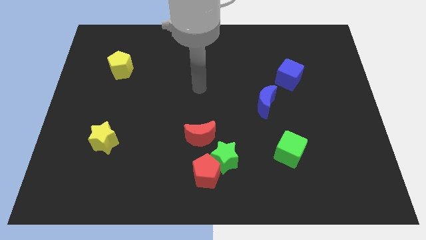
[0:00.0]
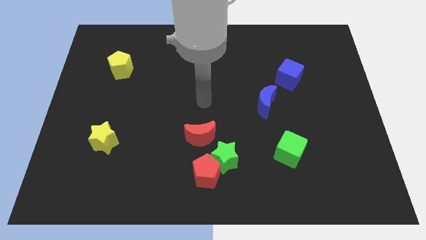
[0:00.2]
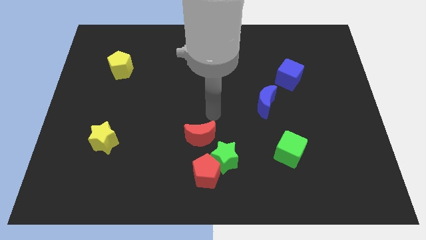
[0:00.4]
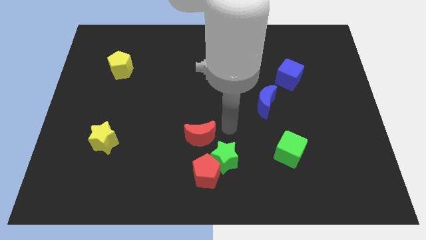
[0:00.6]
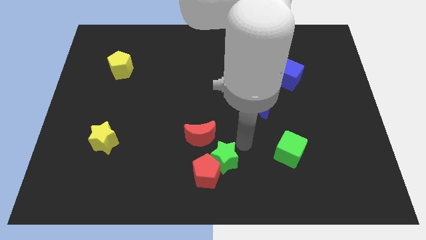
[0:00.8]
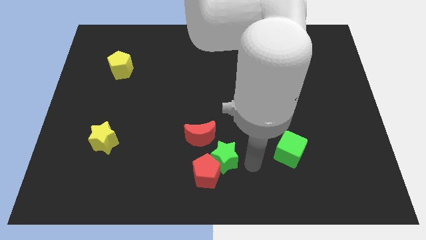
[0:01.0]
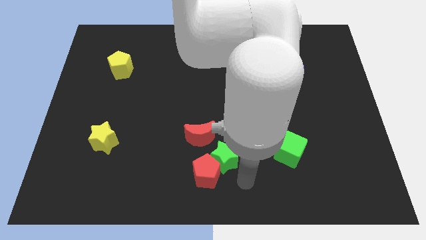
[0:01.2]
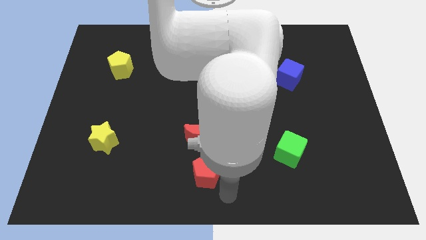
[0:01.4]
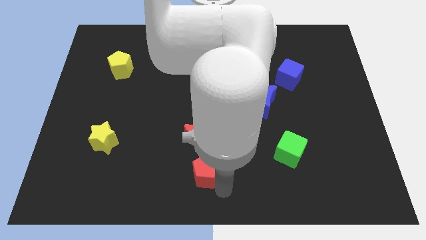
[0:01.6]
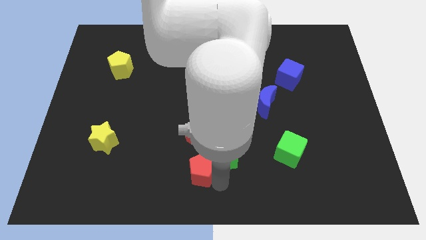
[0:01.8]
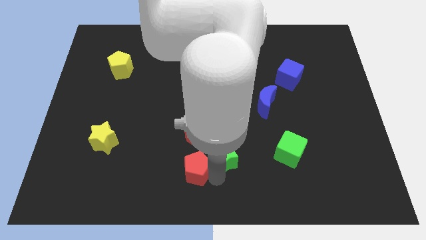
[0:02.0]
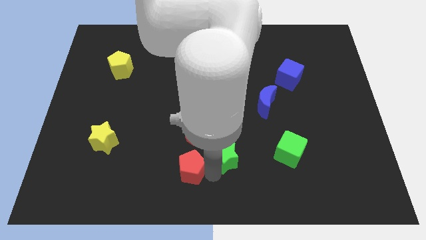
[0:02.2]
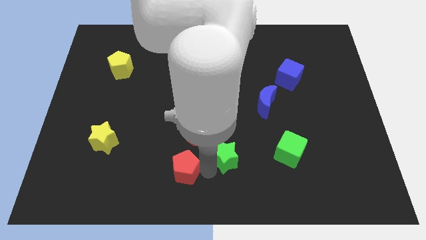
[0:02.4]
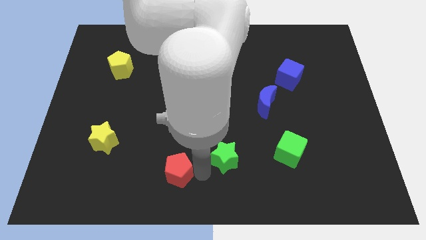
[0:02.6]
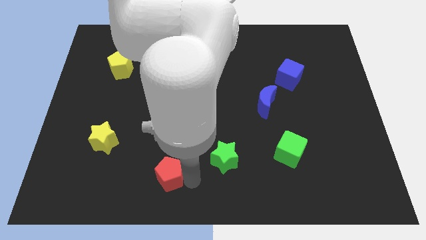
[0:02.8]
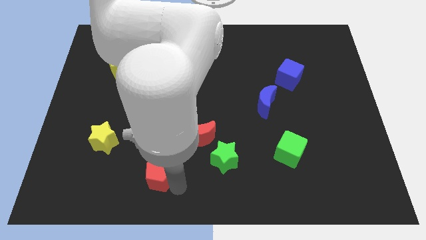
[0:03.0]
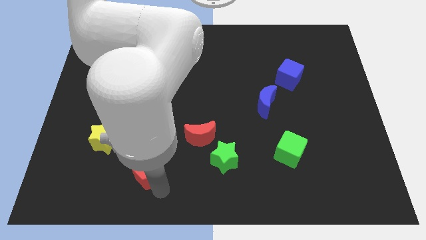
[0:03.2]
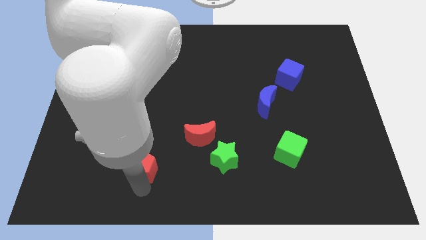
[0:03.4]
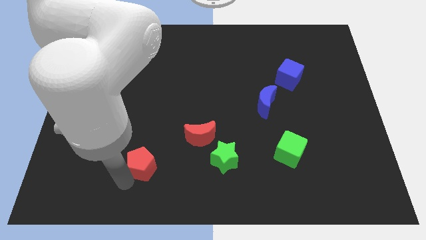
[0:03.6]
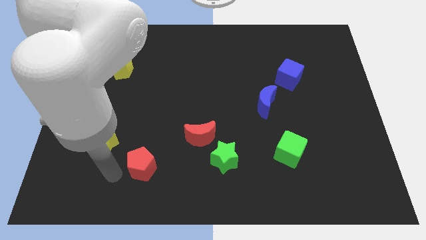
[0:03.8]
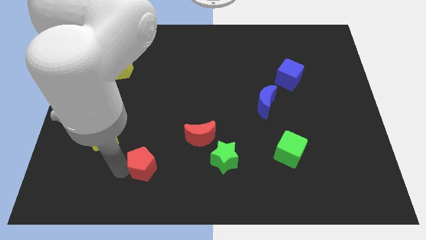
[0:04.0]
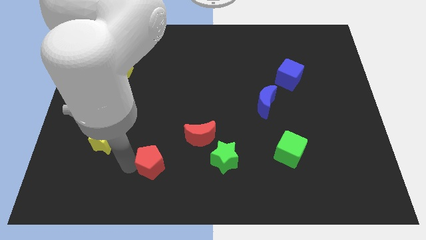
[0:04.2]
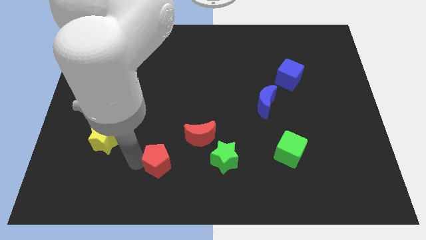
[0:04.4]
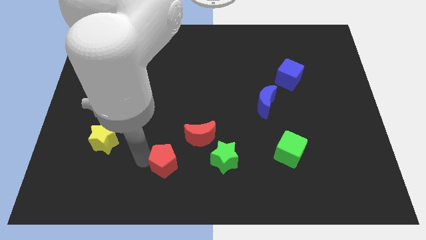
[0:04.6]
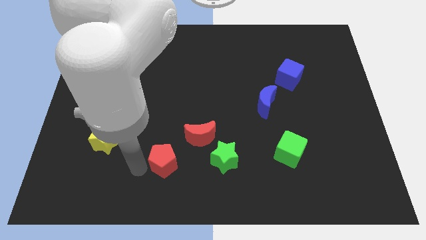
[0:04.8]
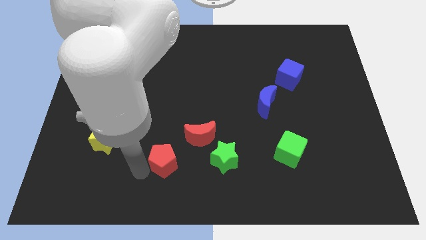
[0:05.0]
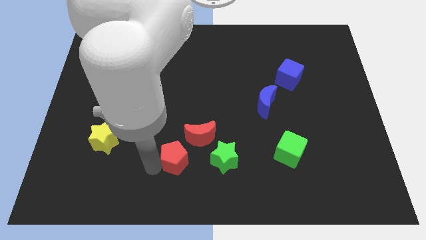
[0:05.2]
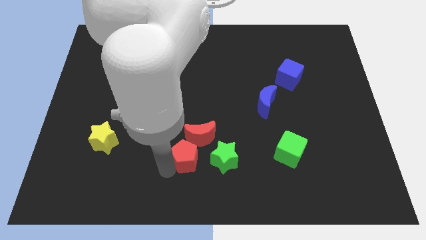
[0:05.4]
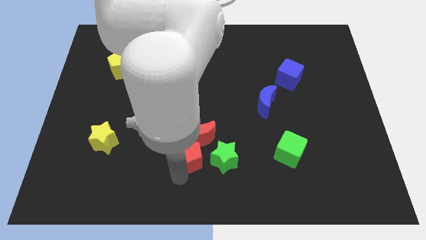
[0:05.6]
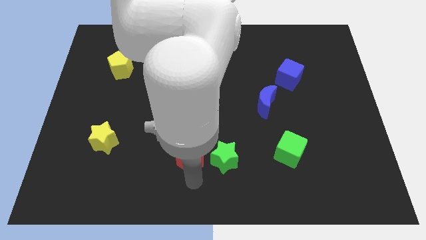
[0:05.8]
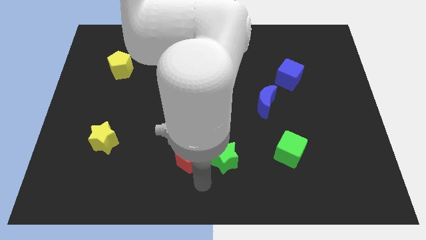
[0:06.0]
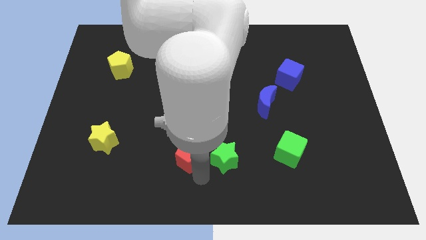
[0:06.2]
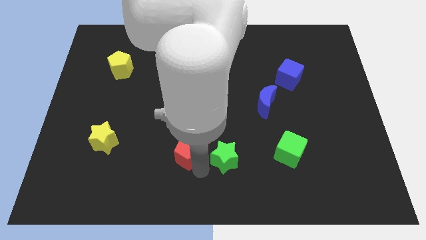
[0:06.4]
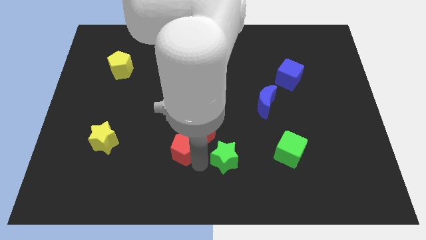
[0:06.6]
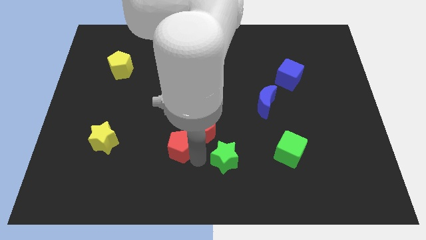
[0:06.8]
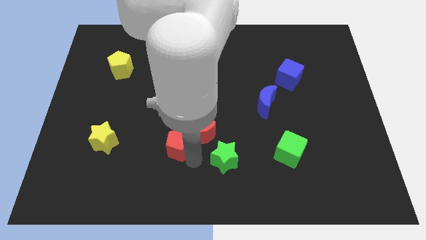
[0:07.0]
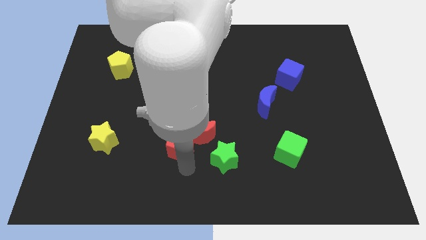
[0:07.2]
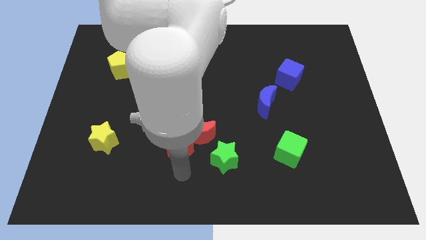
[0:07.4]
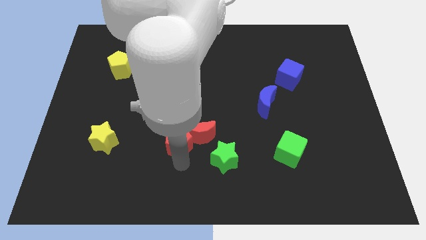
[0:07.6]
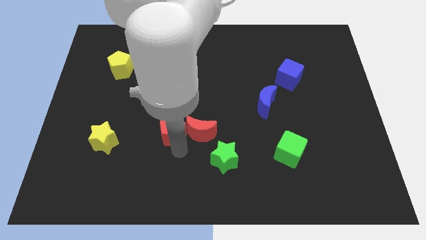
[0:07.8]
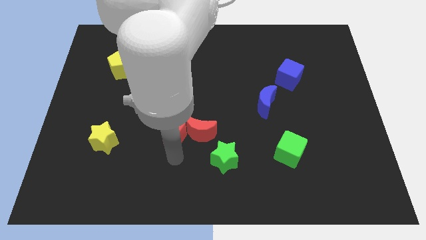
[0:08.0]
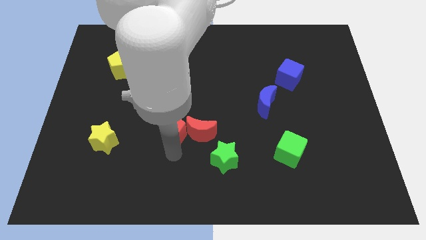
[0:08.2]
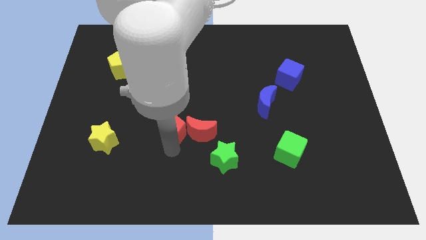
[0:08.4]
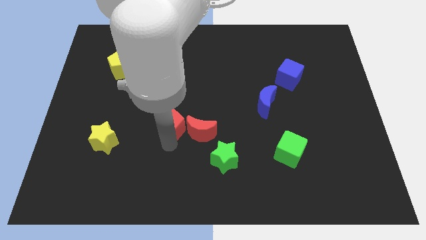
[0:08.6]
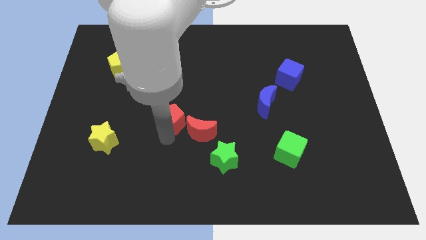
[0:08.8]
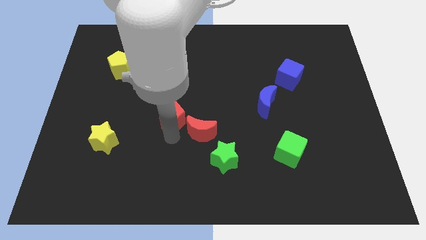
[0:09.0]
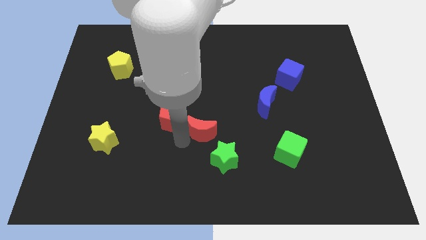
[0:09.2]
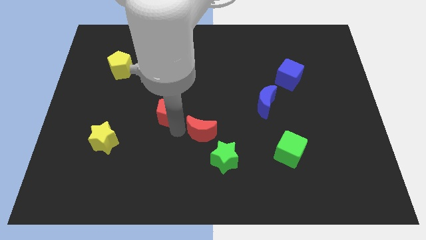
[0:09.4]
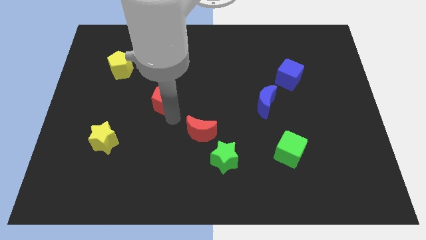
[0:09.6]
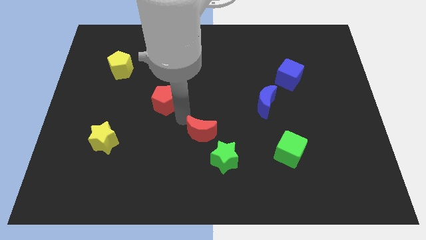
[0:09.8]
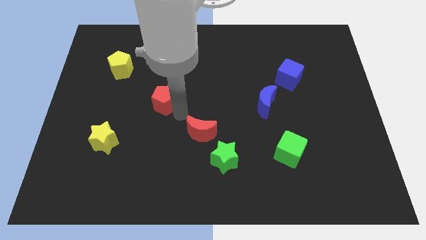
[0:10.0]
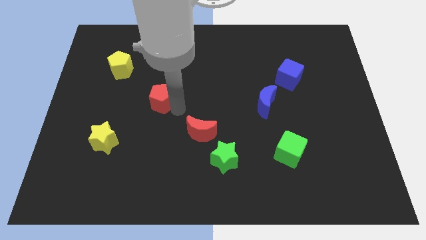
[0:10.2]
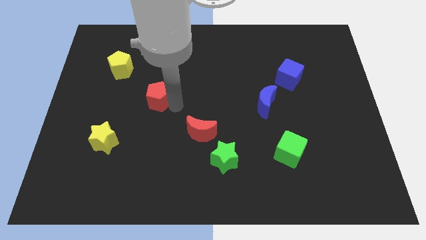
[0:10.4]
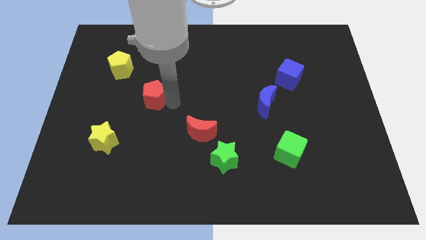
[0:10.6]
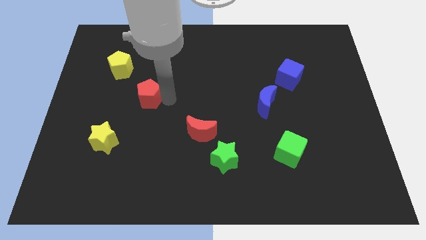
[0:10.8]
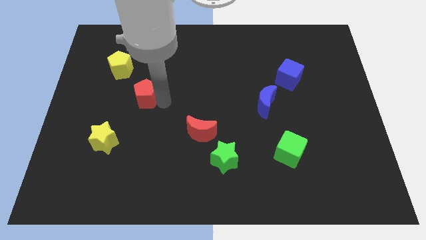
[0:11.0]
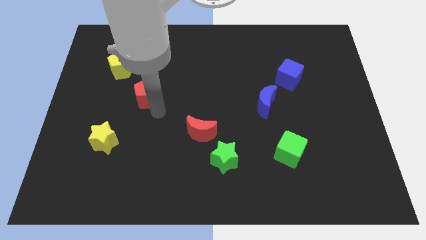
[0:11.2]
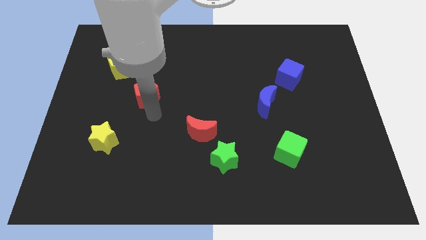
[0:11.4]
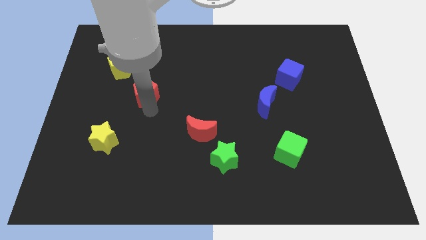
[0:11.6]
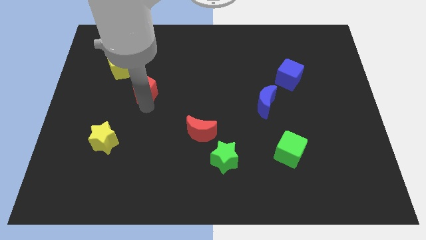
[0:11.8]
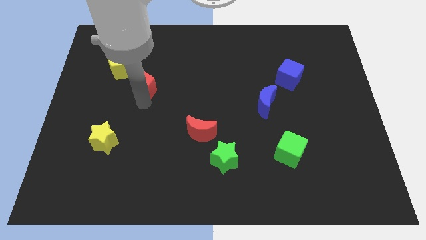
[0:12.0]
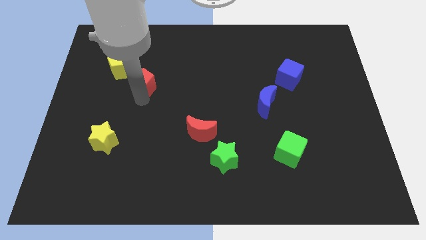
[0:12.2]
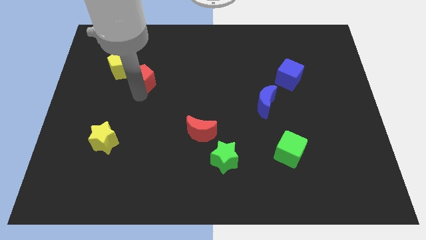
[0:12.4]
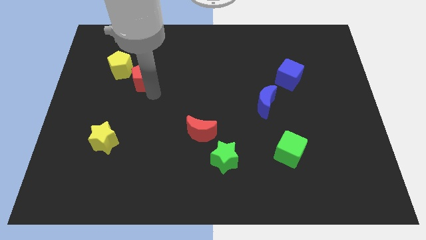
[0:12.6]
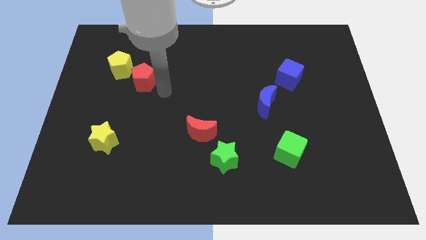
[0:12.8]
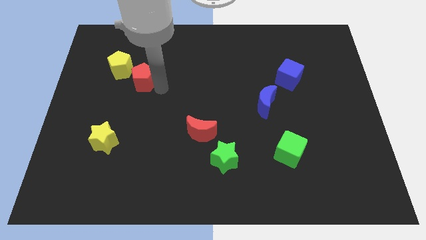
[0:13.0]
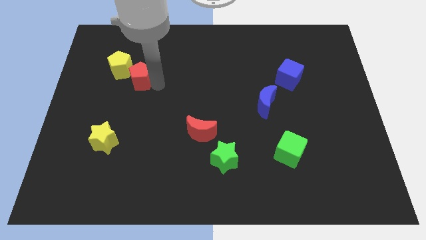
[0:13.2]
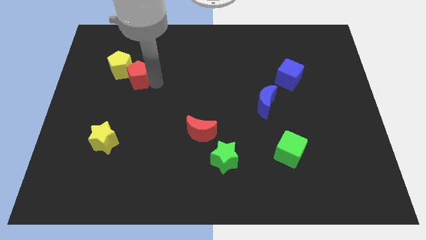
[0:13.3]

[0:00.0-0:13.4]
slide the red pentagon next to the yellow pentagon
